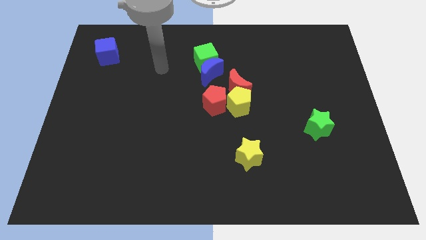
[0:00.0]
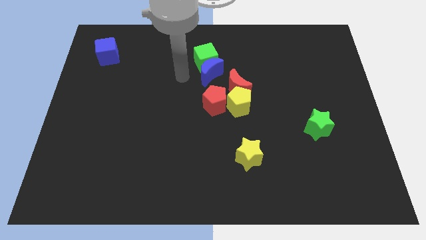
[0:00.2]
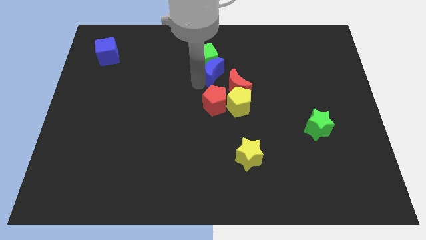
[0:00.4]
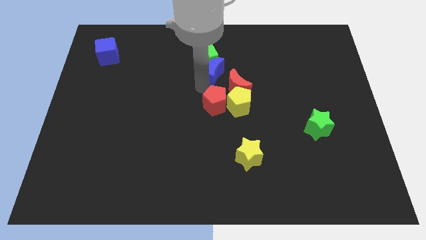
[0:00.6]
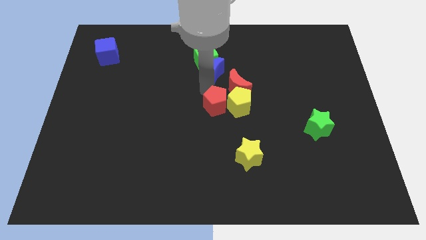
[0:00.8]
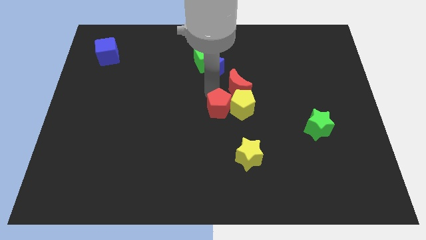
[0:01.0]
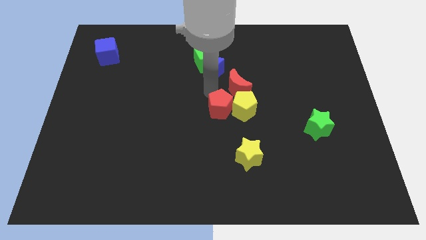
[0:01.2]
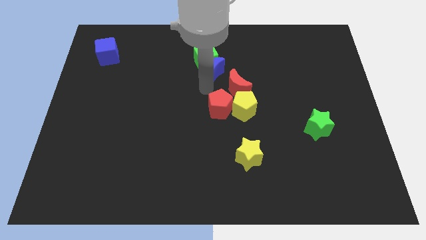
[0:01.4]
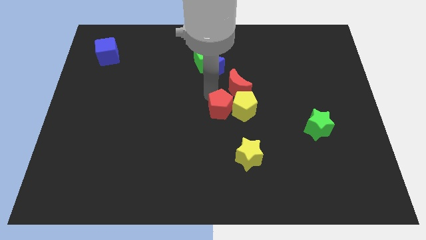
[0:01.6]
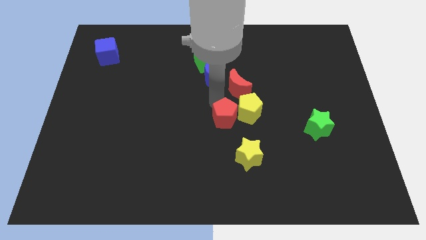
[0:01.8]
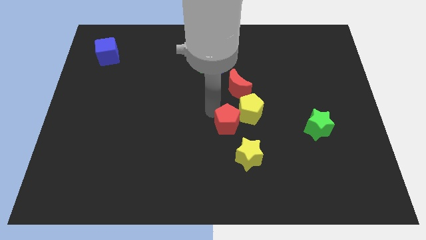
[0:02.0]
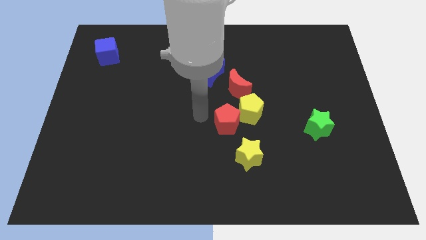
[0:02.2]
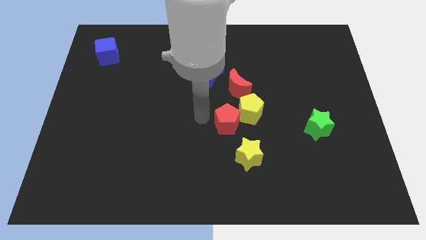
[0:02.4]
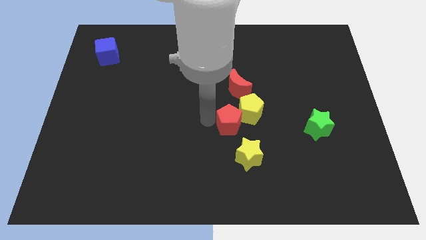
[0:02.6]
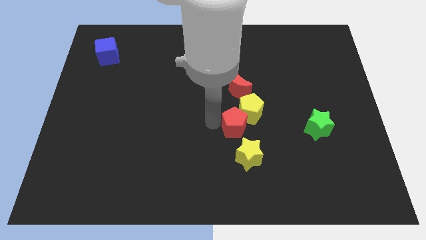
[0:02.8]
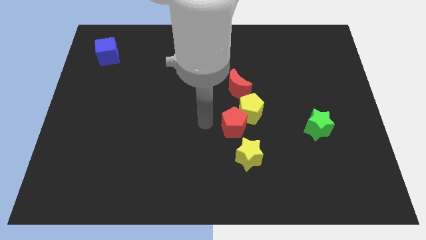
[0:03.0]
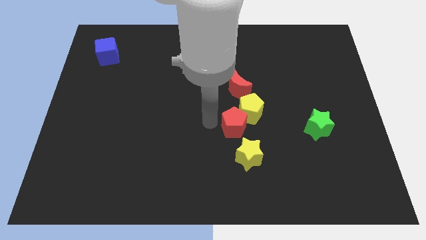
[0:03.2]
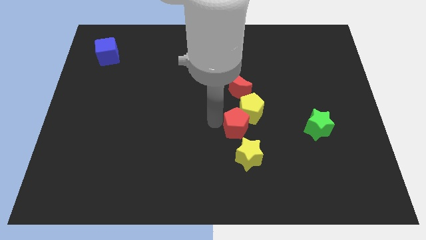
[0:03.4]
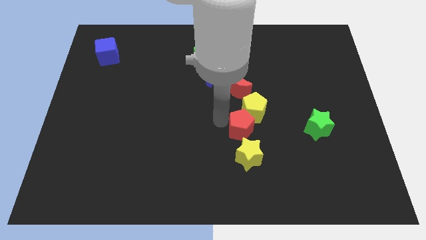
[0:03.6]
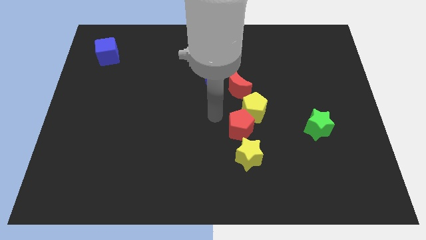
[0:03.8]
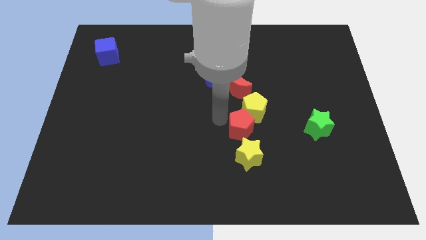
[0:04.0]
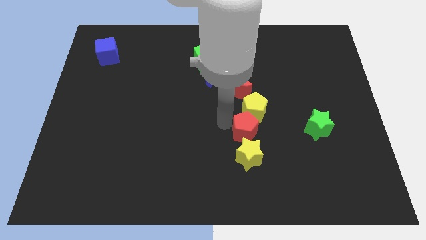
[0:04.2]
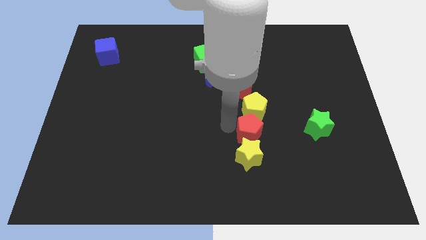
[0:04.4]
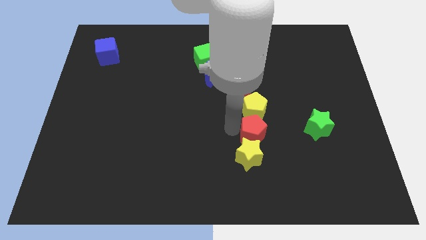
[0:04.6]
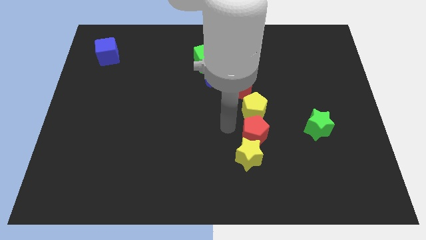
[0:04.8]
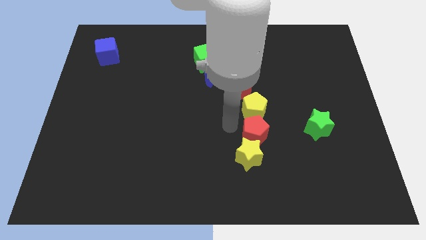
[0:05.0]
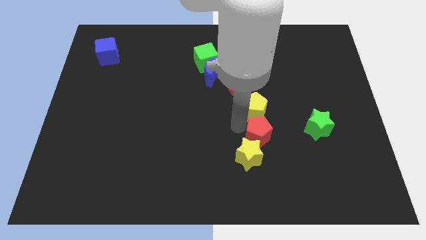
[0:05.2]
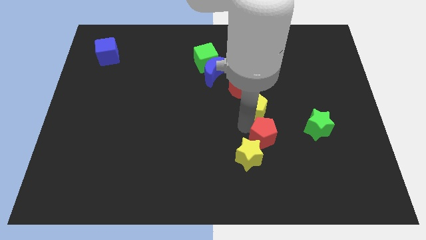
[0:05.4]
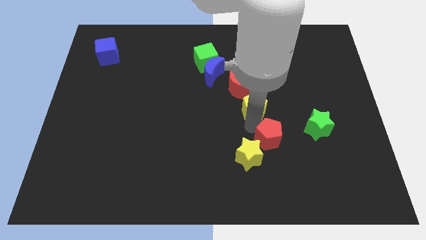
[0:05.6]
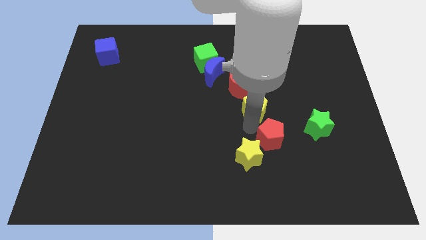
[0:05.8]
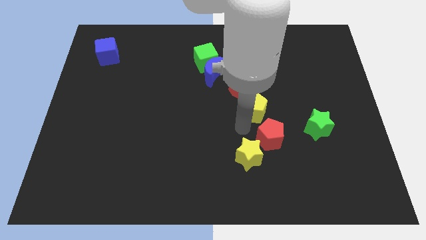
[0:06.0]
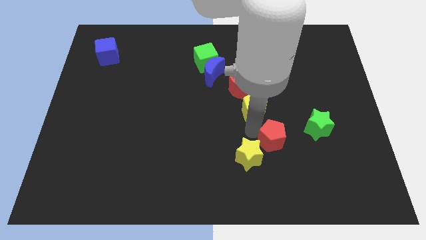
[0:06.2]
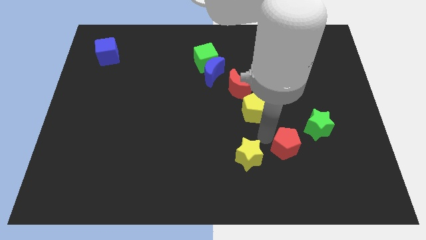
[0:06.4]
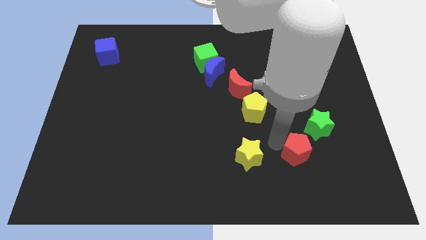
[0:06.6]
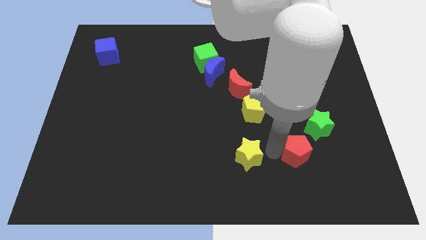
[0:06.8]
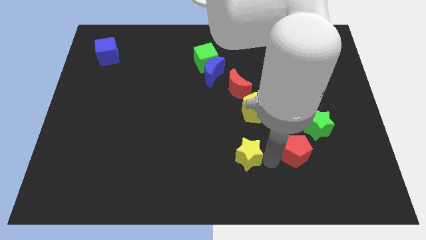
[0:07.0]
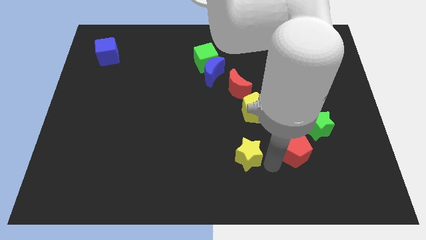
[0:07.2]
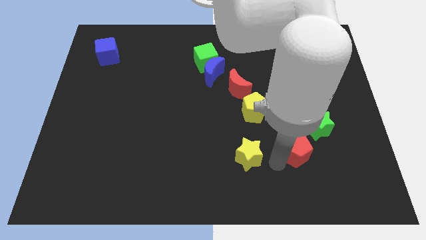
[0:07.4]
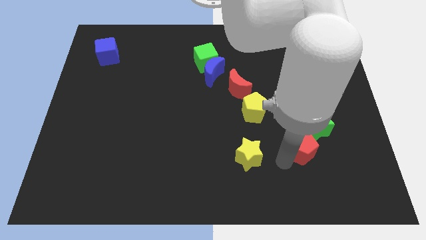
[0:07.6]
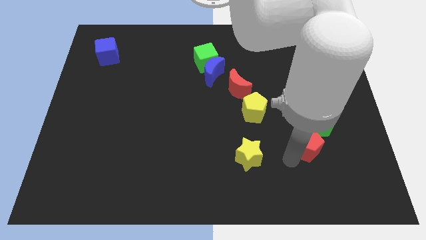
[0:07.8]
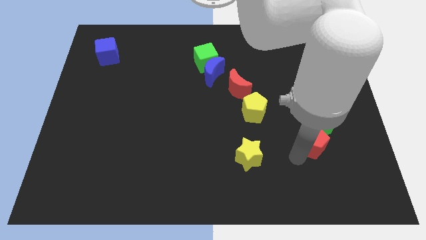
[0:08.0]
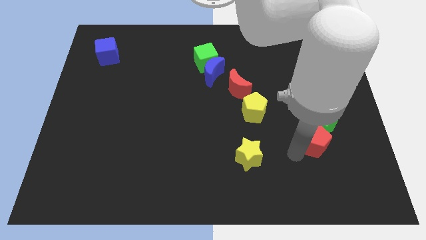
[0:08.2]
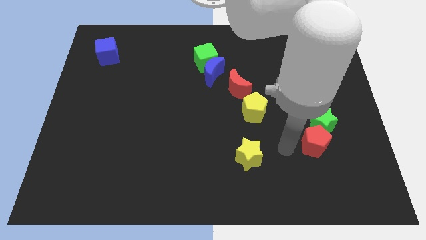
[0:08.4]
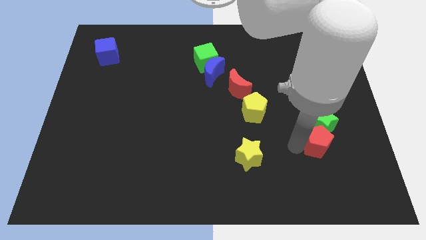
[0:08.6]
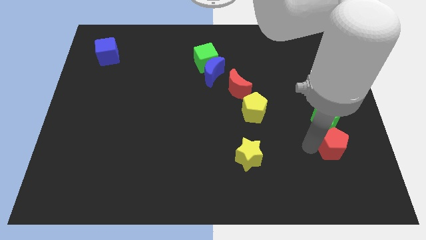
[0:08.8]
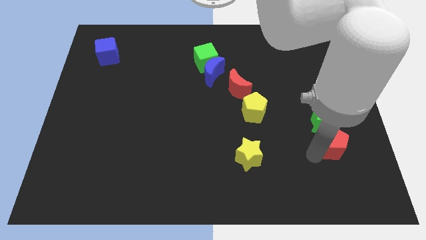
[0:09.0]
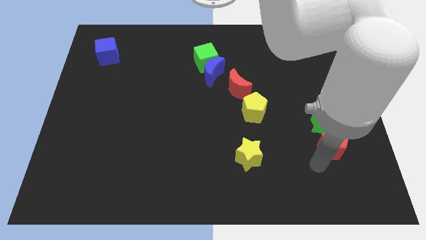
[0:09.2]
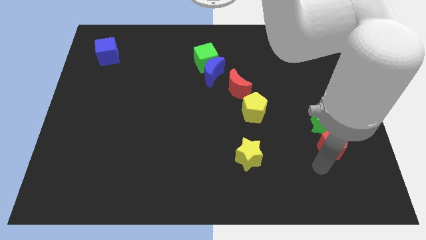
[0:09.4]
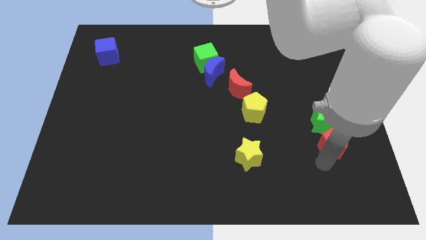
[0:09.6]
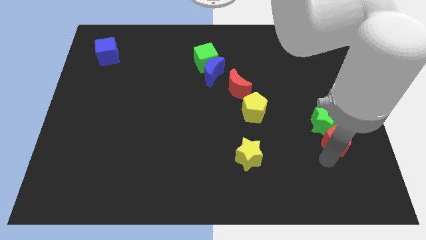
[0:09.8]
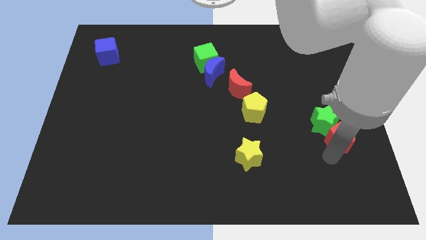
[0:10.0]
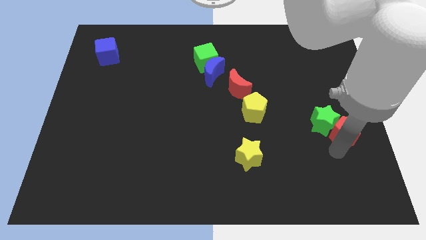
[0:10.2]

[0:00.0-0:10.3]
put the red pentagon to the right side
